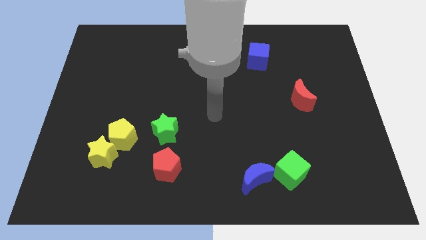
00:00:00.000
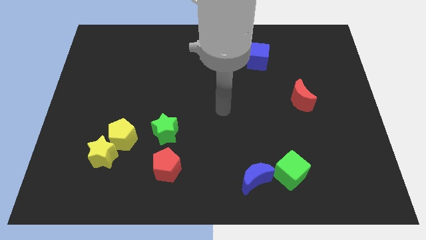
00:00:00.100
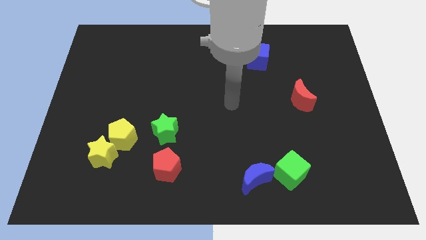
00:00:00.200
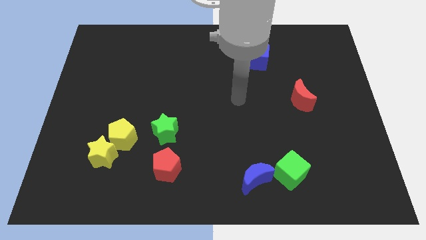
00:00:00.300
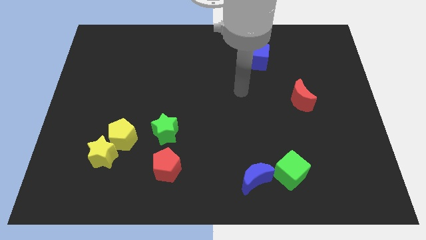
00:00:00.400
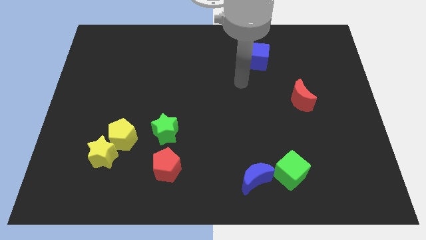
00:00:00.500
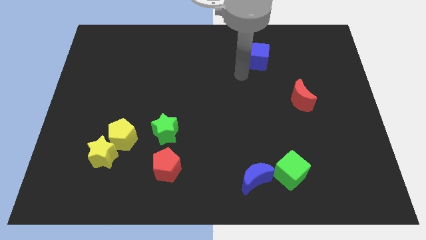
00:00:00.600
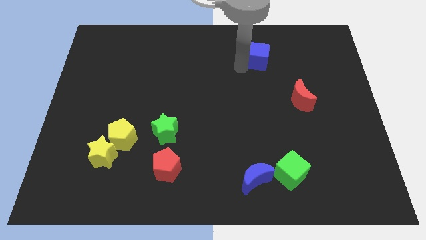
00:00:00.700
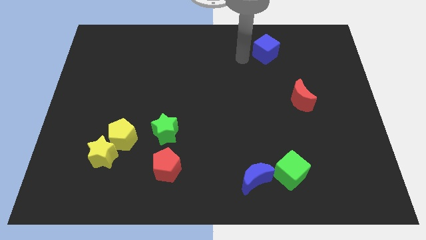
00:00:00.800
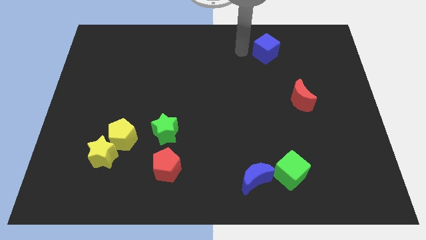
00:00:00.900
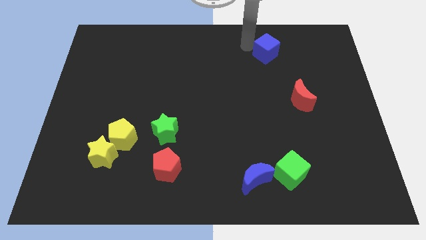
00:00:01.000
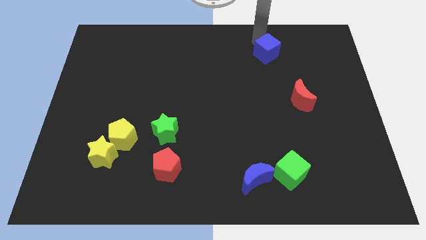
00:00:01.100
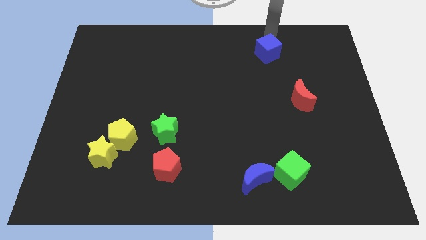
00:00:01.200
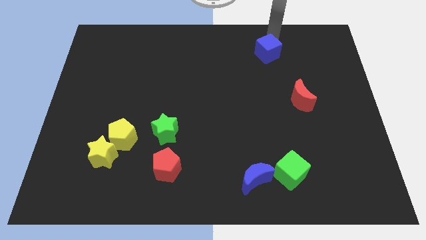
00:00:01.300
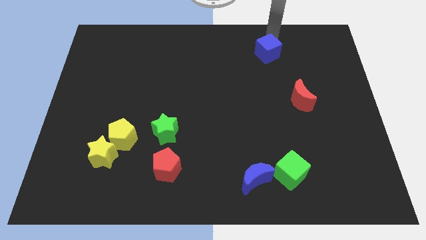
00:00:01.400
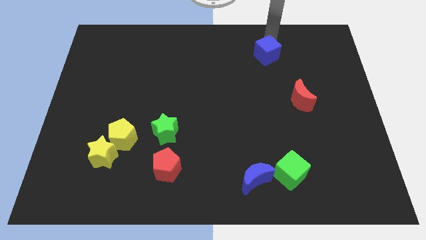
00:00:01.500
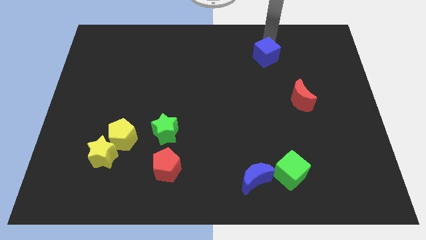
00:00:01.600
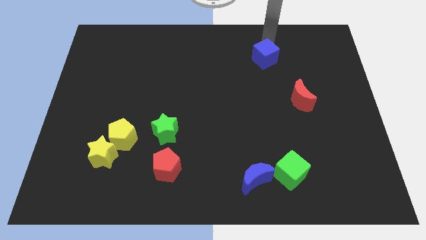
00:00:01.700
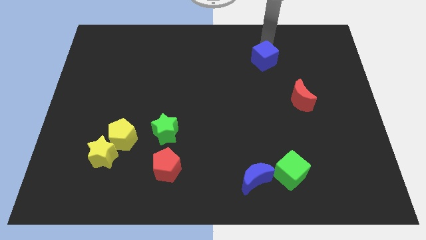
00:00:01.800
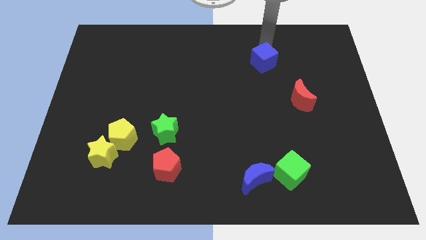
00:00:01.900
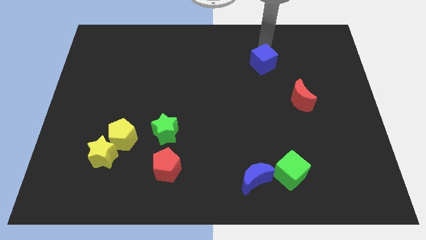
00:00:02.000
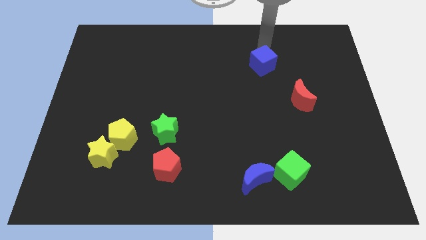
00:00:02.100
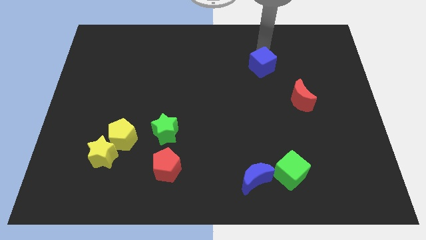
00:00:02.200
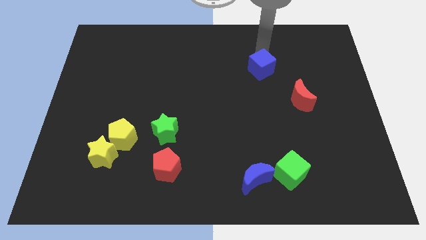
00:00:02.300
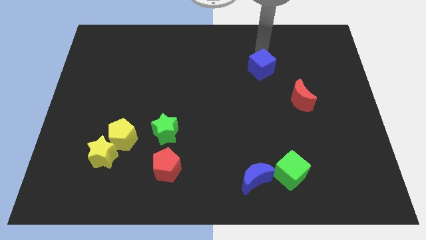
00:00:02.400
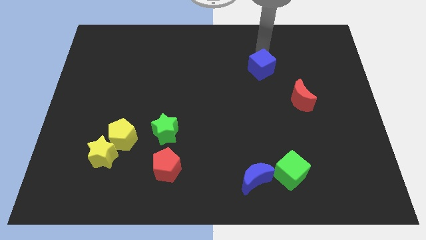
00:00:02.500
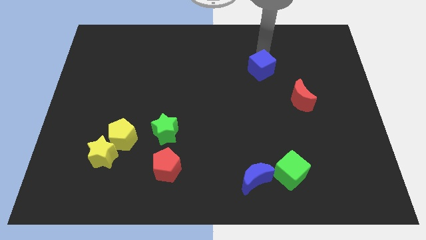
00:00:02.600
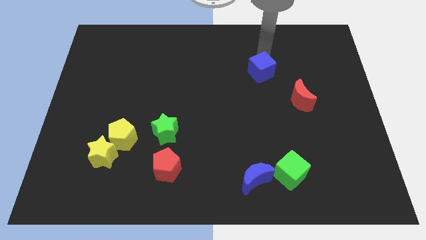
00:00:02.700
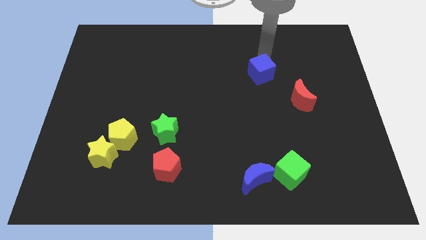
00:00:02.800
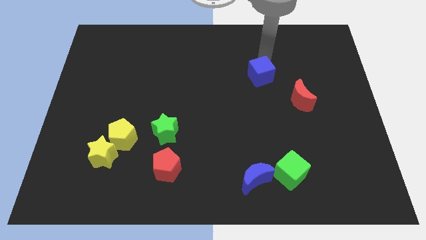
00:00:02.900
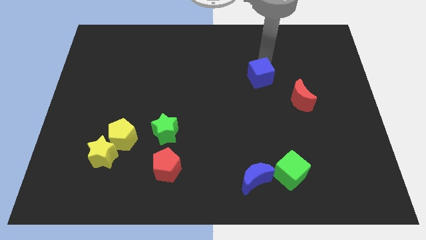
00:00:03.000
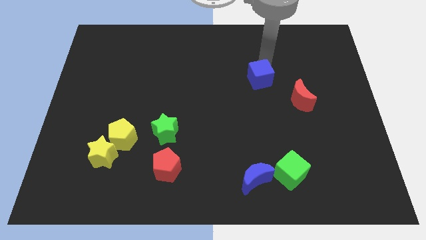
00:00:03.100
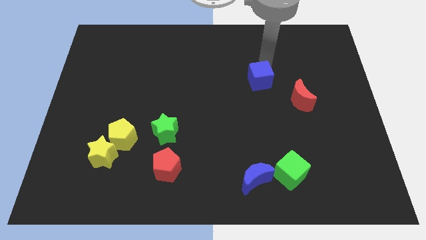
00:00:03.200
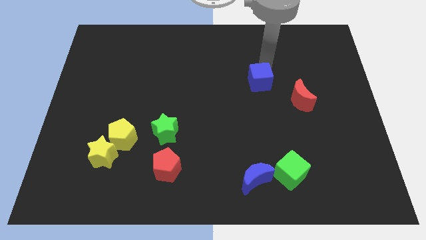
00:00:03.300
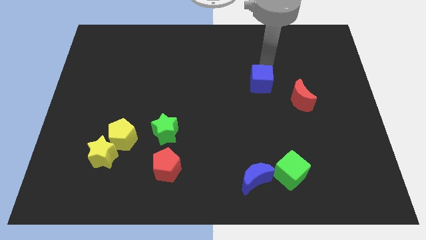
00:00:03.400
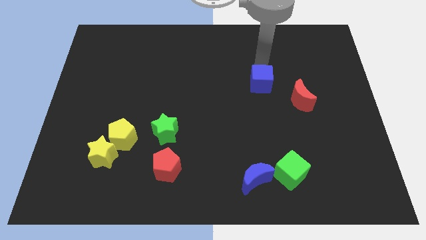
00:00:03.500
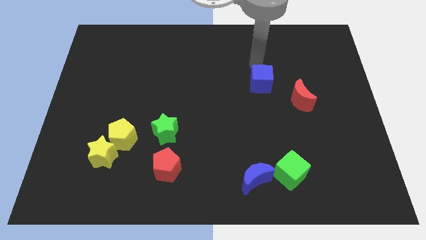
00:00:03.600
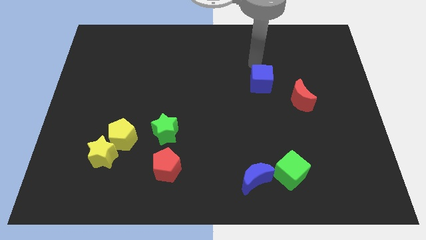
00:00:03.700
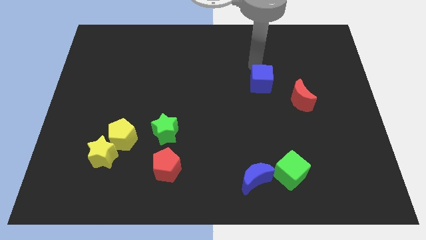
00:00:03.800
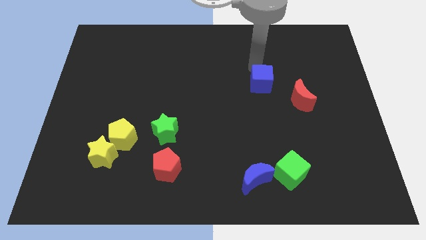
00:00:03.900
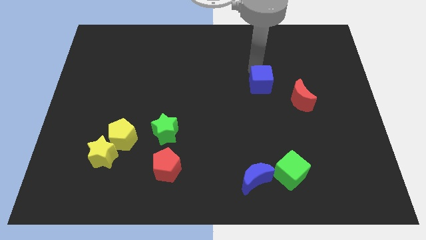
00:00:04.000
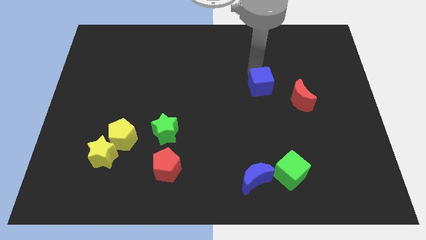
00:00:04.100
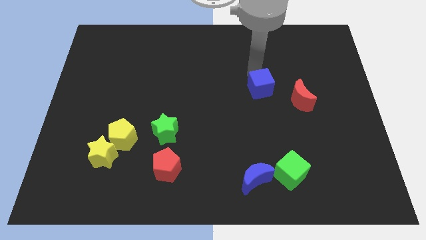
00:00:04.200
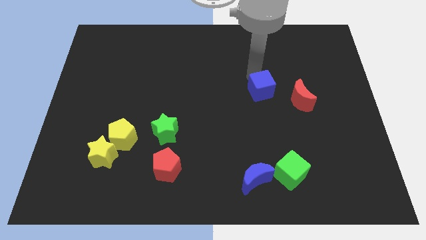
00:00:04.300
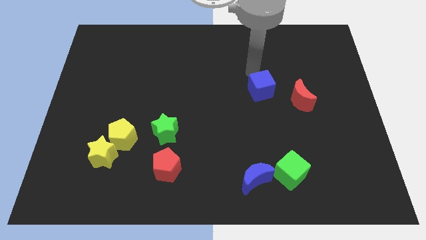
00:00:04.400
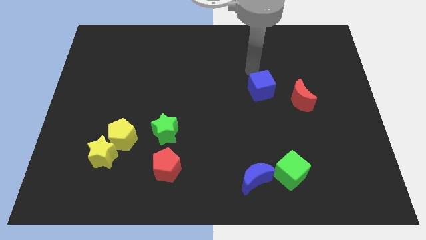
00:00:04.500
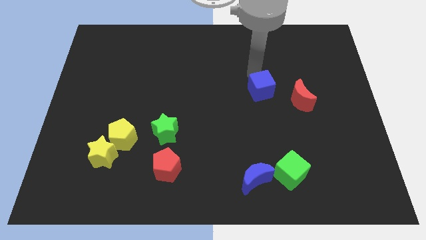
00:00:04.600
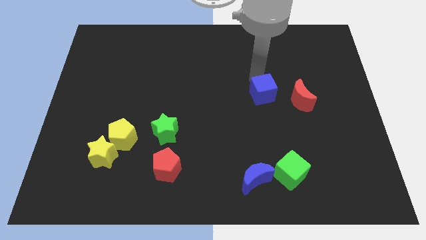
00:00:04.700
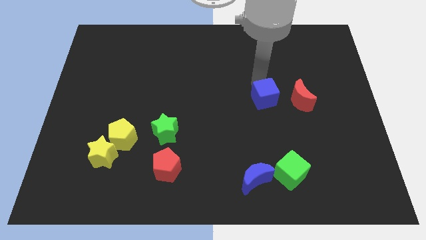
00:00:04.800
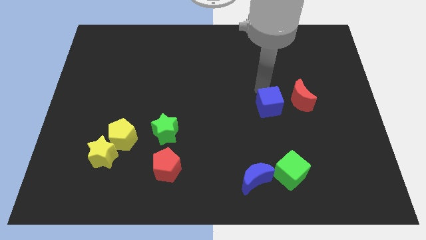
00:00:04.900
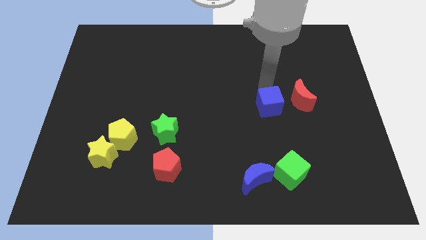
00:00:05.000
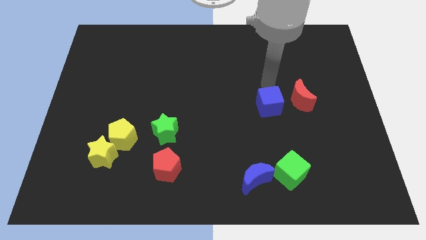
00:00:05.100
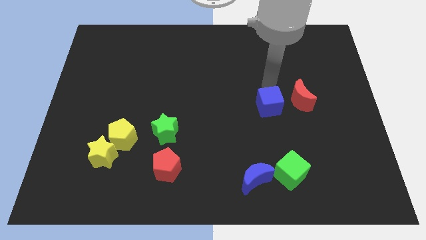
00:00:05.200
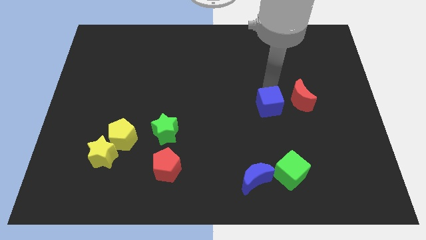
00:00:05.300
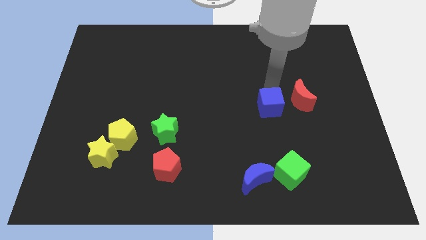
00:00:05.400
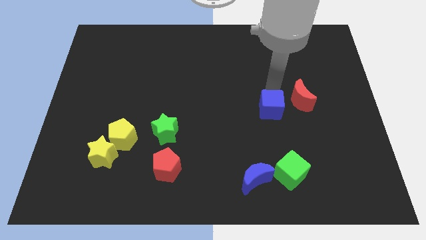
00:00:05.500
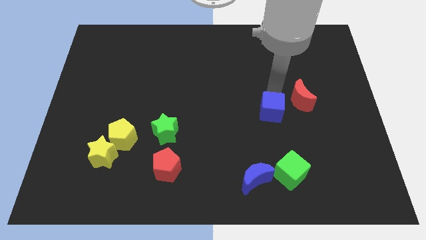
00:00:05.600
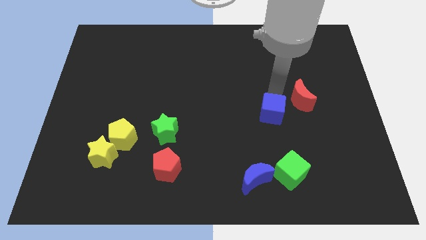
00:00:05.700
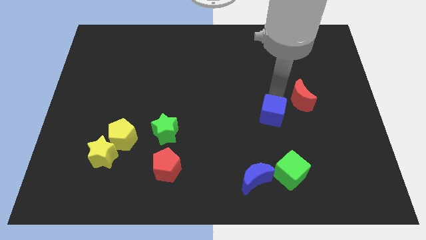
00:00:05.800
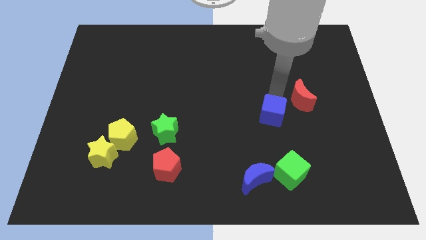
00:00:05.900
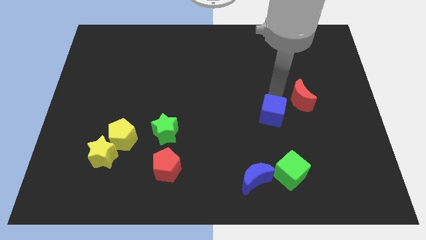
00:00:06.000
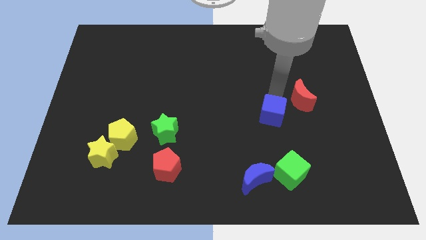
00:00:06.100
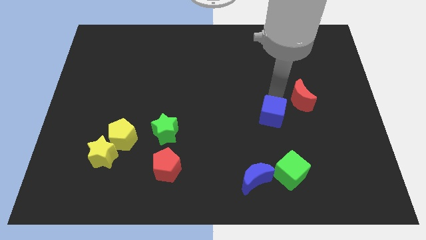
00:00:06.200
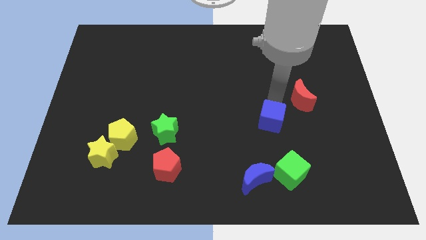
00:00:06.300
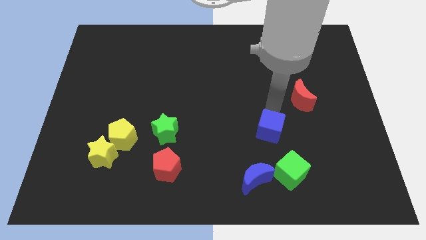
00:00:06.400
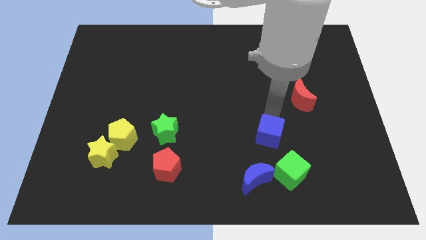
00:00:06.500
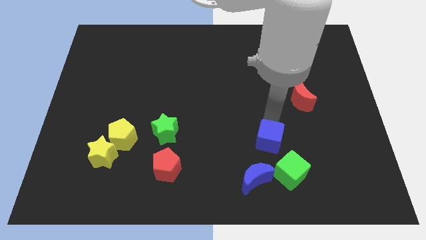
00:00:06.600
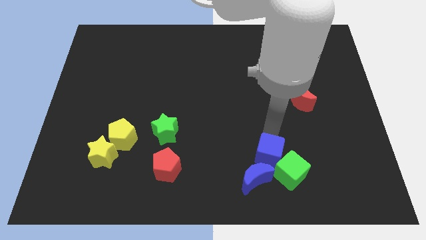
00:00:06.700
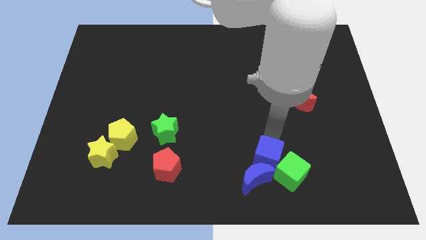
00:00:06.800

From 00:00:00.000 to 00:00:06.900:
put the blue cube to the blue moon
